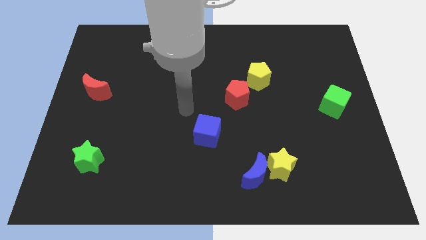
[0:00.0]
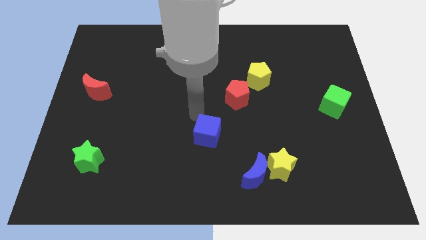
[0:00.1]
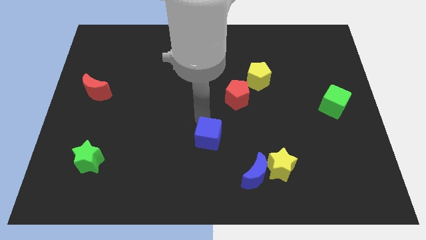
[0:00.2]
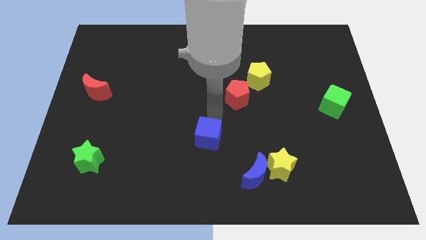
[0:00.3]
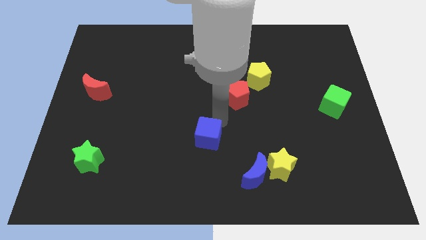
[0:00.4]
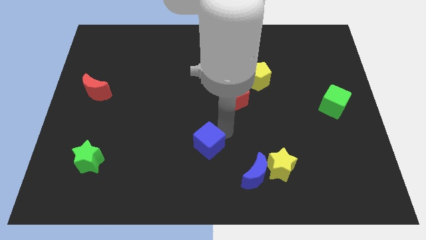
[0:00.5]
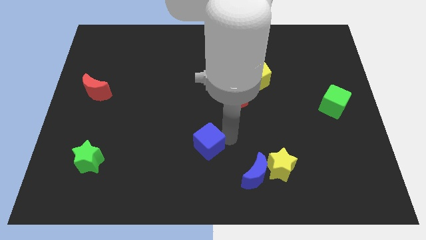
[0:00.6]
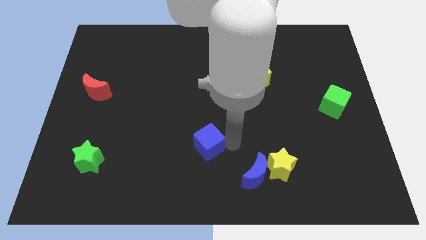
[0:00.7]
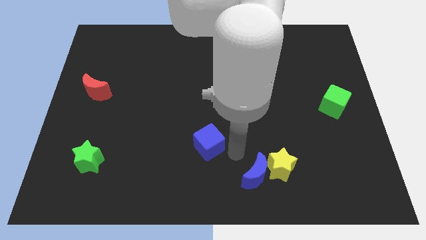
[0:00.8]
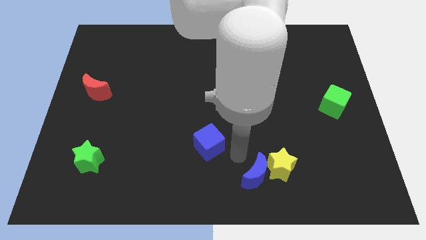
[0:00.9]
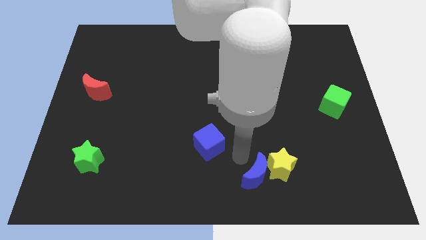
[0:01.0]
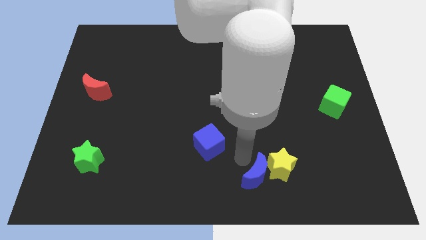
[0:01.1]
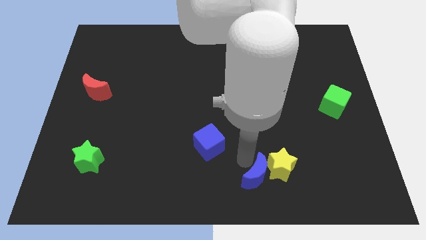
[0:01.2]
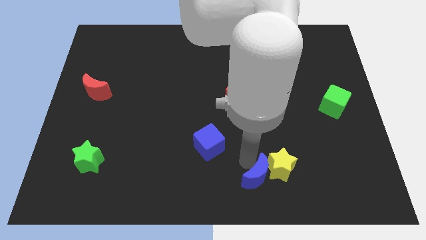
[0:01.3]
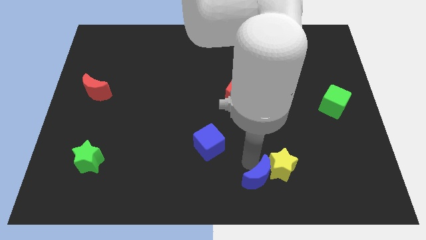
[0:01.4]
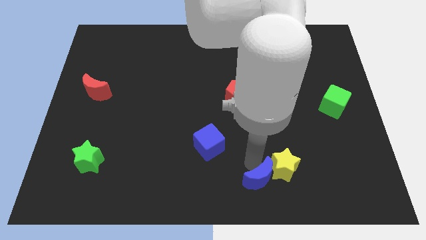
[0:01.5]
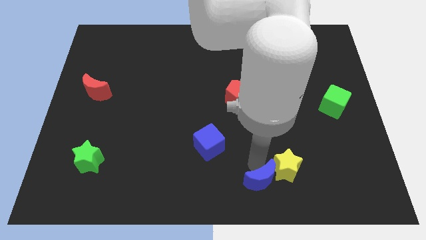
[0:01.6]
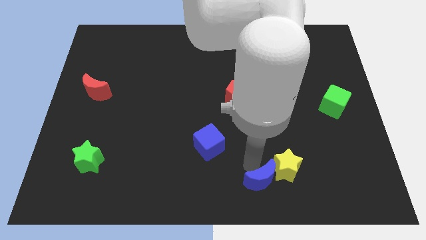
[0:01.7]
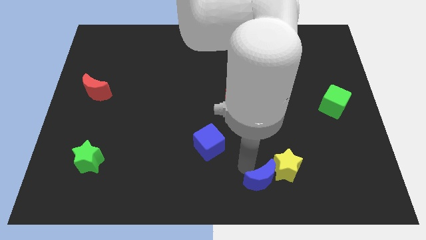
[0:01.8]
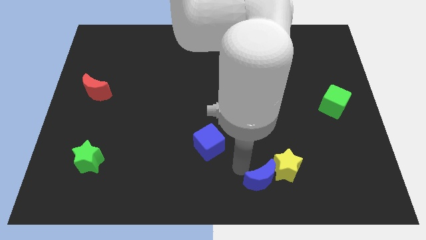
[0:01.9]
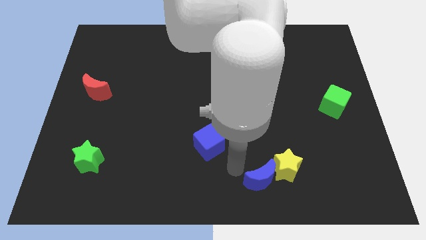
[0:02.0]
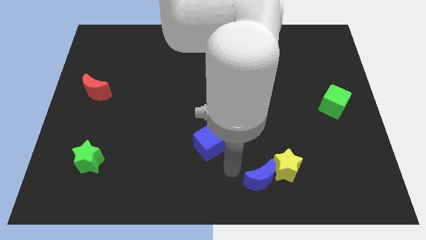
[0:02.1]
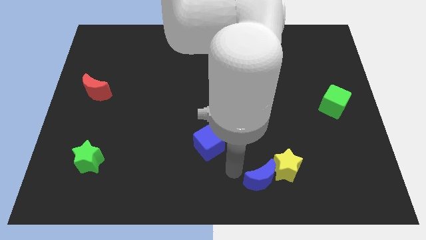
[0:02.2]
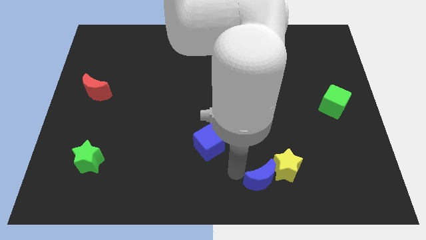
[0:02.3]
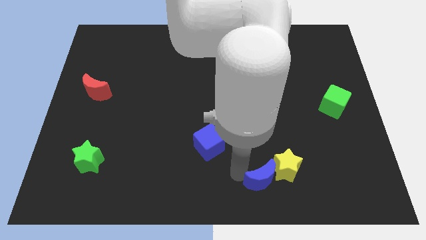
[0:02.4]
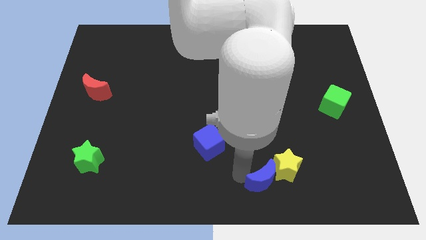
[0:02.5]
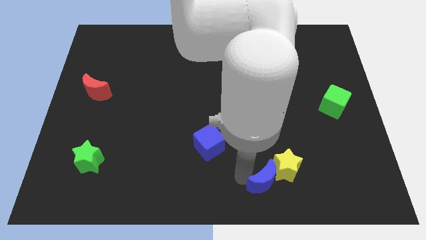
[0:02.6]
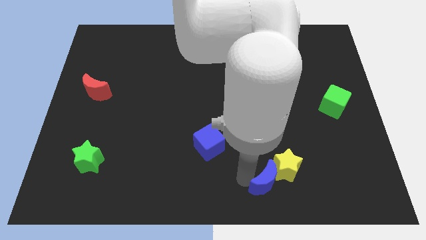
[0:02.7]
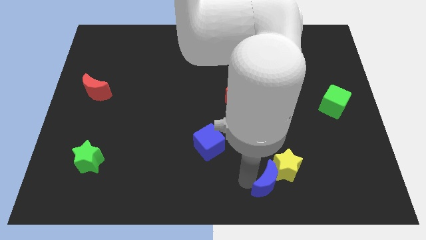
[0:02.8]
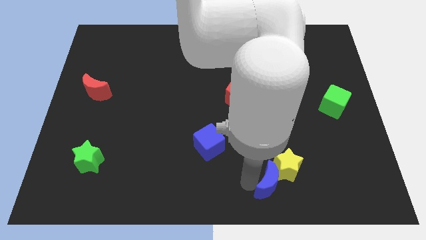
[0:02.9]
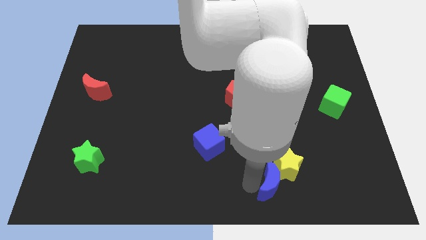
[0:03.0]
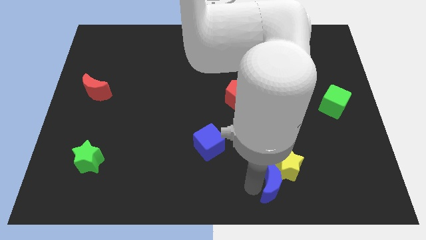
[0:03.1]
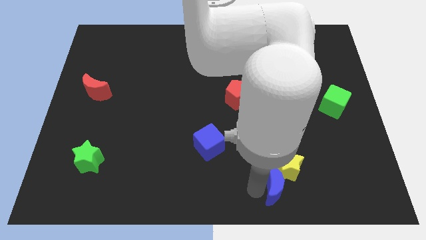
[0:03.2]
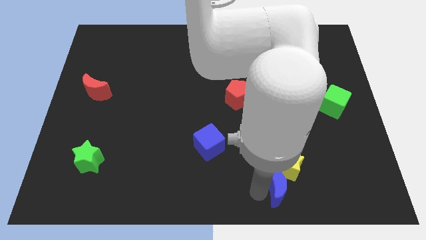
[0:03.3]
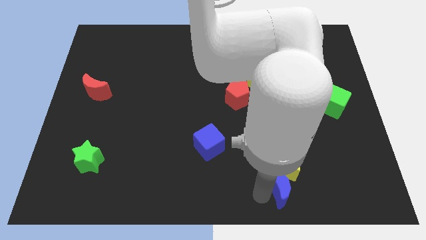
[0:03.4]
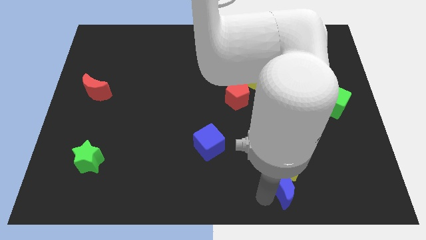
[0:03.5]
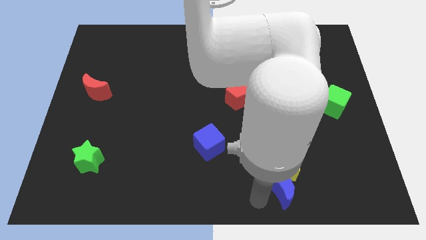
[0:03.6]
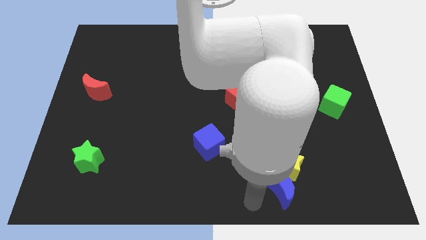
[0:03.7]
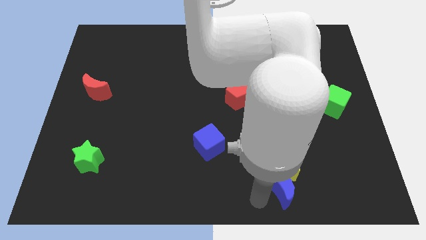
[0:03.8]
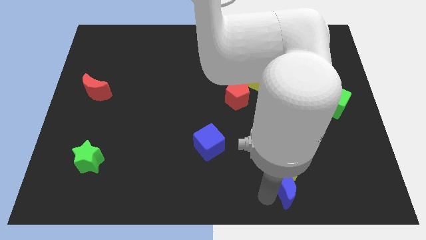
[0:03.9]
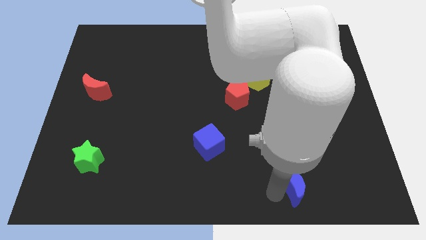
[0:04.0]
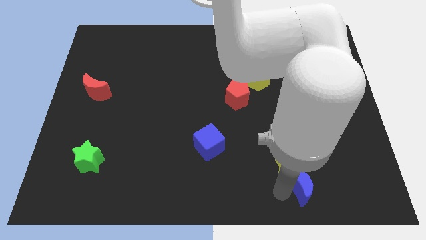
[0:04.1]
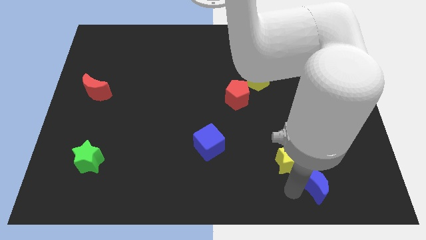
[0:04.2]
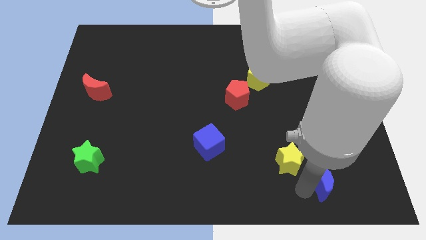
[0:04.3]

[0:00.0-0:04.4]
push the blue moon right of the yellow star

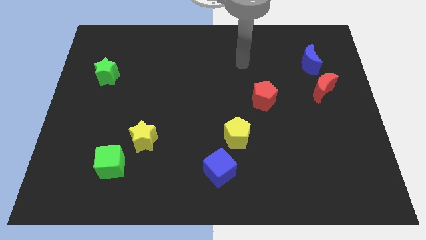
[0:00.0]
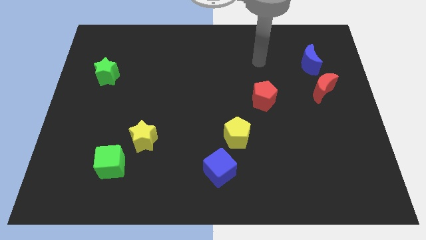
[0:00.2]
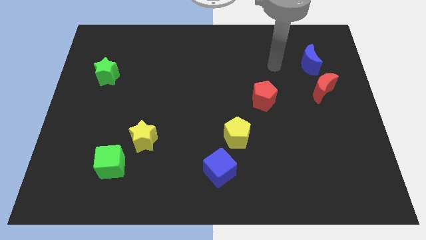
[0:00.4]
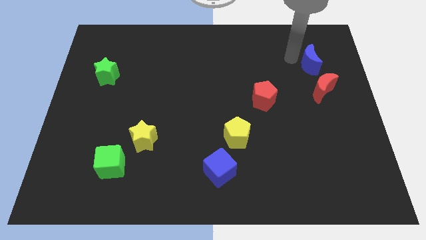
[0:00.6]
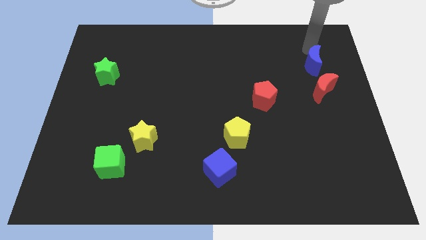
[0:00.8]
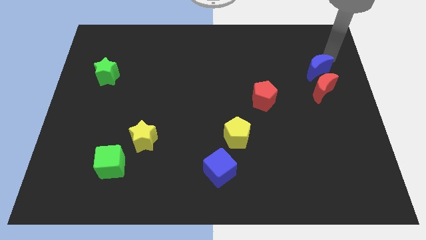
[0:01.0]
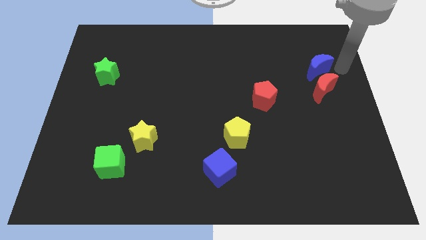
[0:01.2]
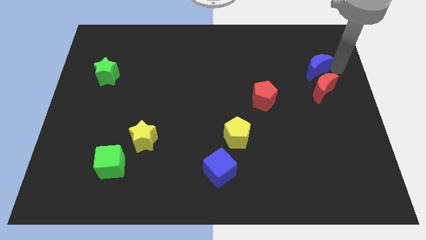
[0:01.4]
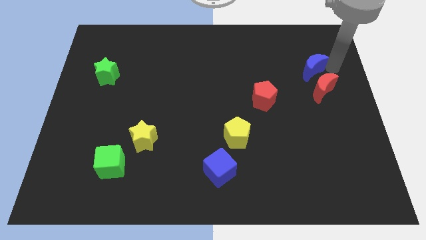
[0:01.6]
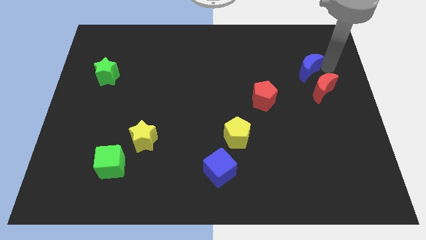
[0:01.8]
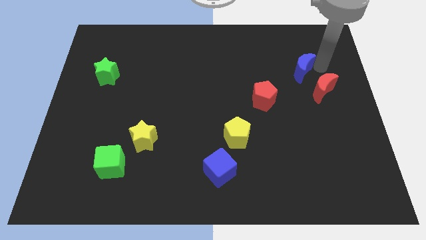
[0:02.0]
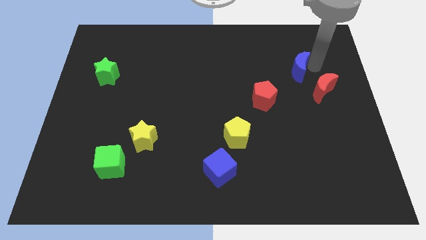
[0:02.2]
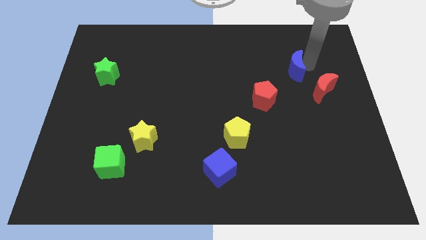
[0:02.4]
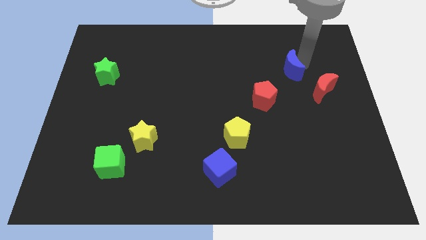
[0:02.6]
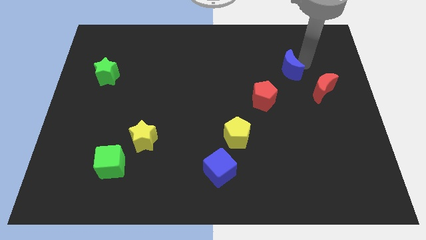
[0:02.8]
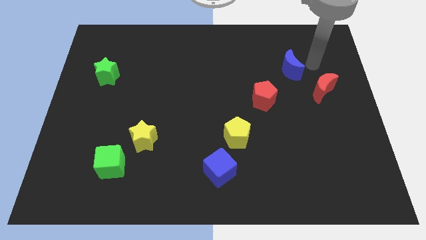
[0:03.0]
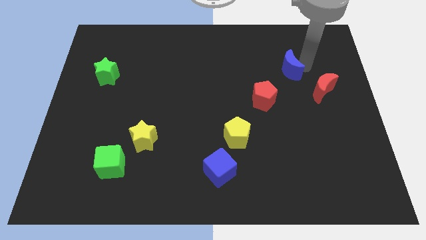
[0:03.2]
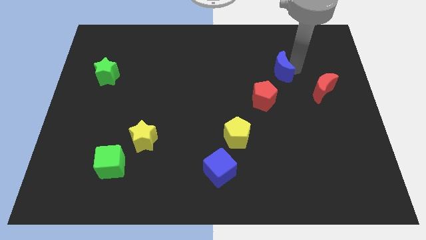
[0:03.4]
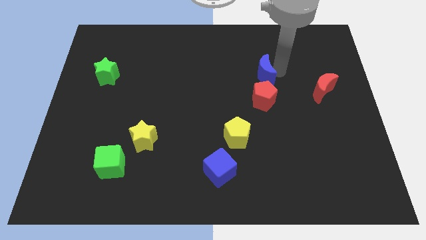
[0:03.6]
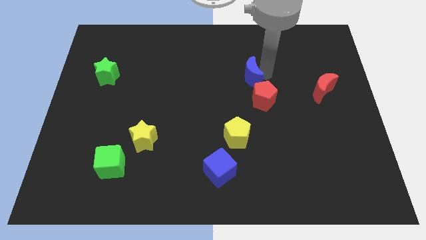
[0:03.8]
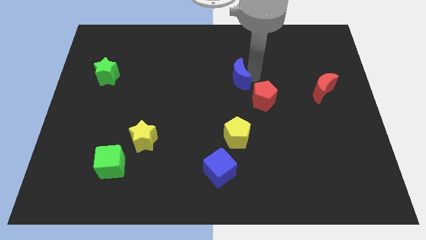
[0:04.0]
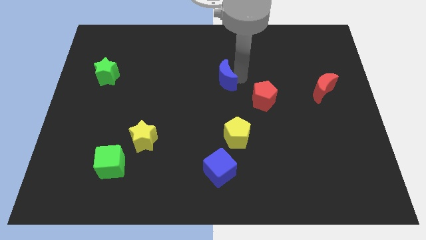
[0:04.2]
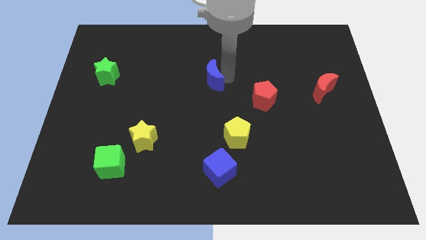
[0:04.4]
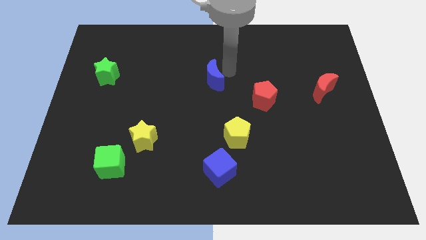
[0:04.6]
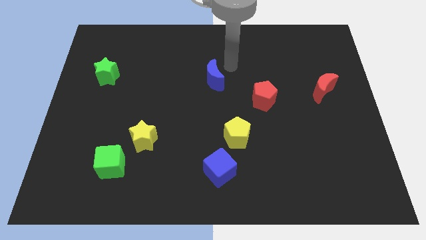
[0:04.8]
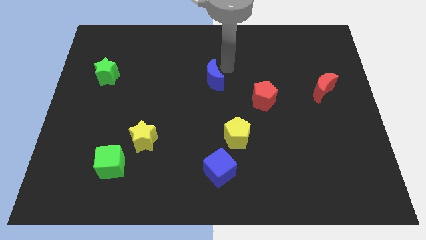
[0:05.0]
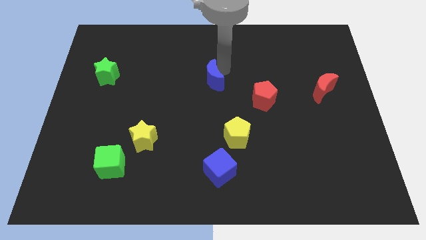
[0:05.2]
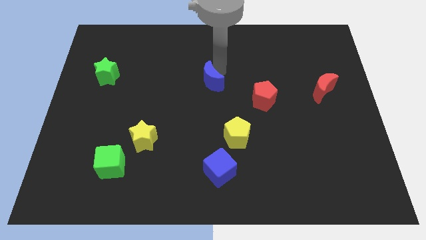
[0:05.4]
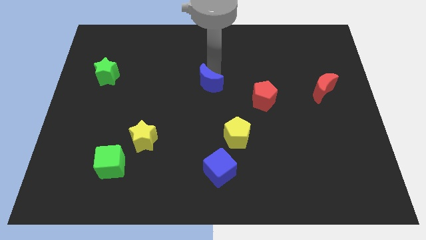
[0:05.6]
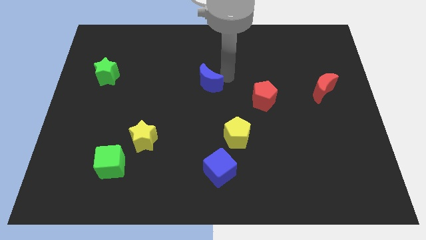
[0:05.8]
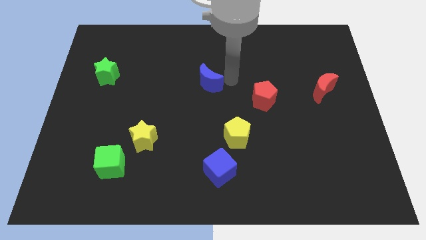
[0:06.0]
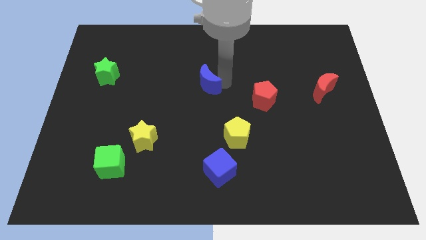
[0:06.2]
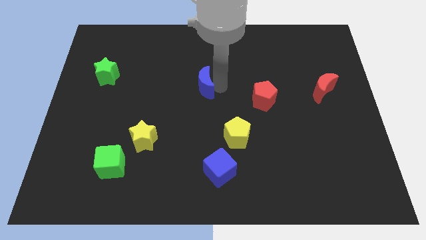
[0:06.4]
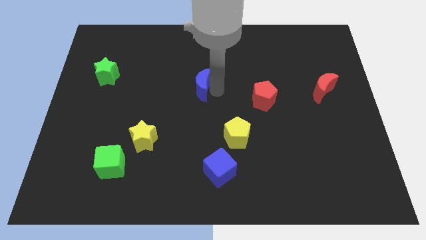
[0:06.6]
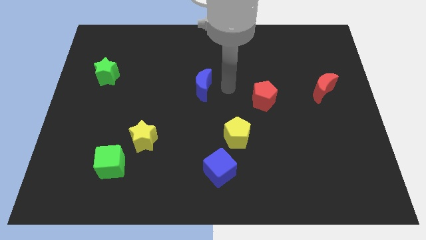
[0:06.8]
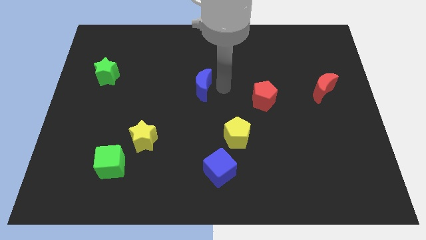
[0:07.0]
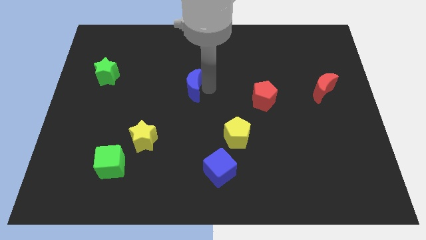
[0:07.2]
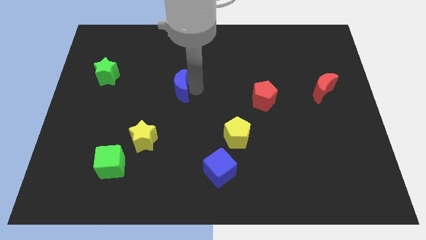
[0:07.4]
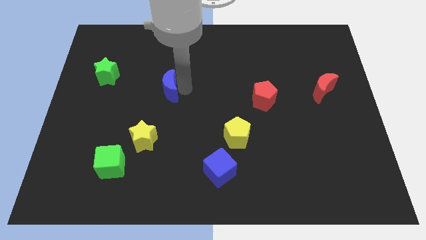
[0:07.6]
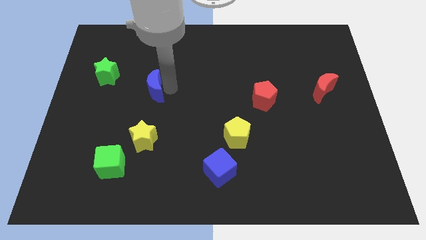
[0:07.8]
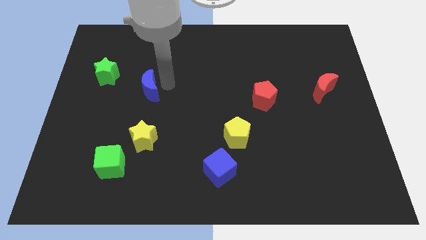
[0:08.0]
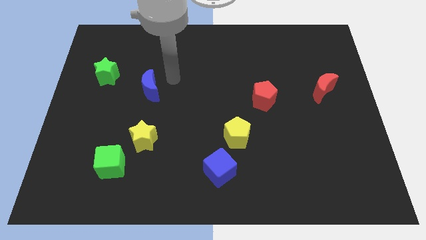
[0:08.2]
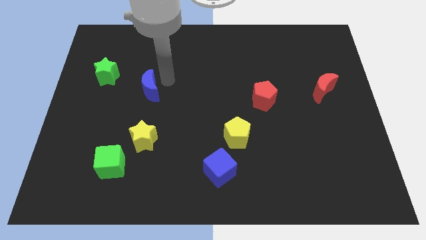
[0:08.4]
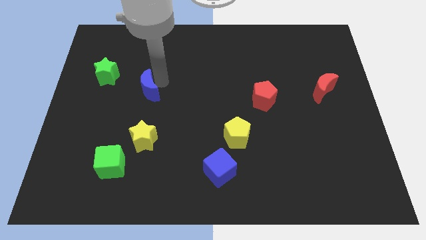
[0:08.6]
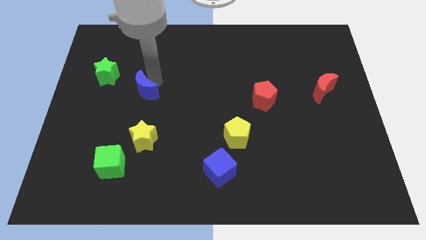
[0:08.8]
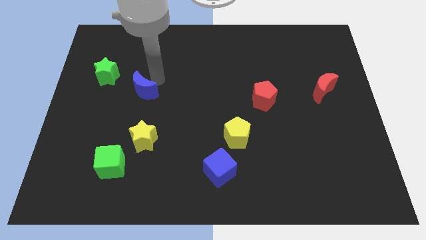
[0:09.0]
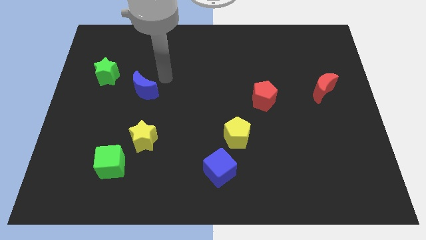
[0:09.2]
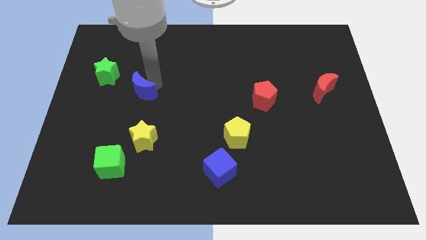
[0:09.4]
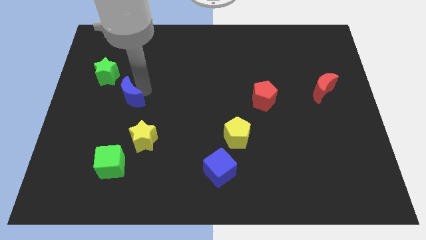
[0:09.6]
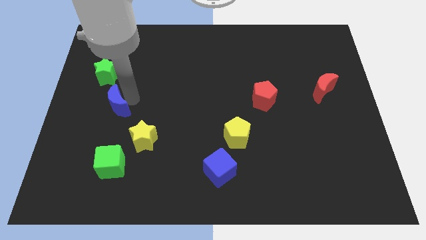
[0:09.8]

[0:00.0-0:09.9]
slide the blue moon to the bottom of the green star
